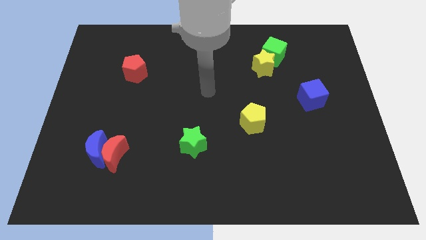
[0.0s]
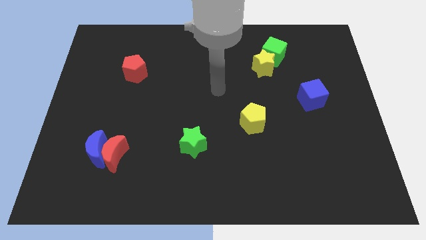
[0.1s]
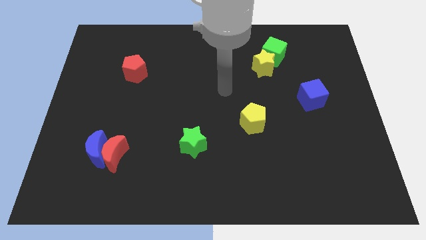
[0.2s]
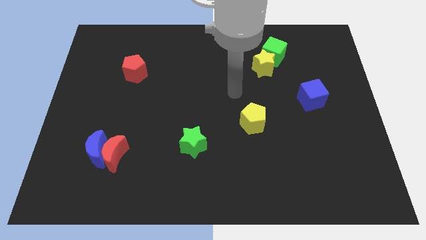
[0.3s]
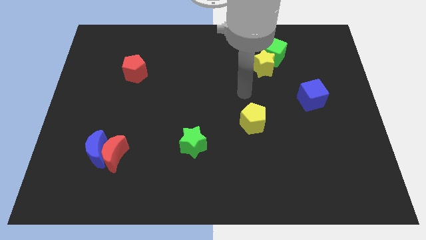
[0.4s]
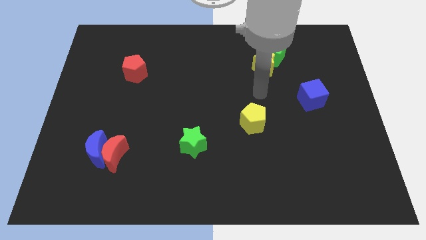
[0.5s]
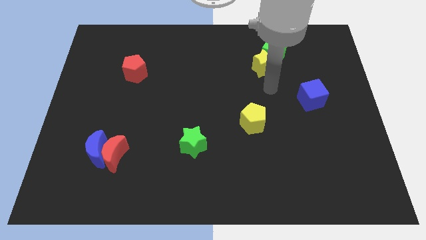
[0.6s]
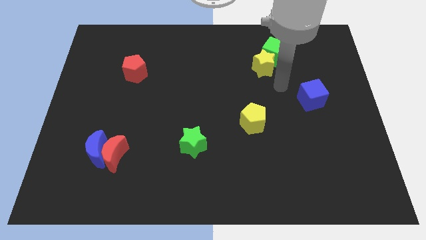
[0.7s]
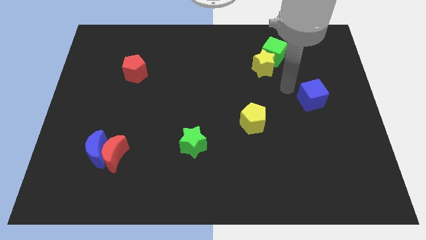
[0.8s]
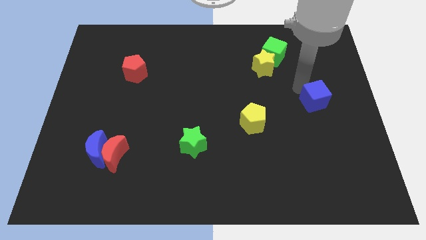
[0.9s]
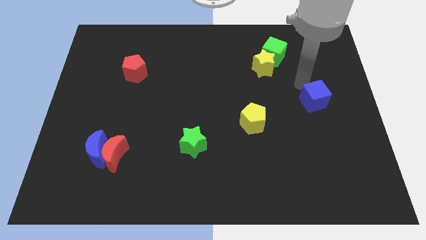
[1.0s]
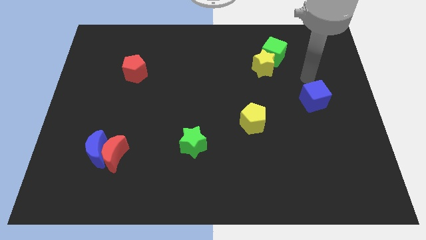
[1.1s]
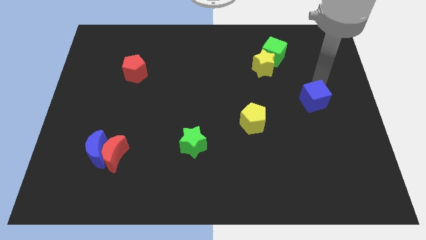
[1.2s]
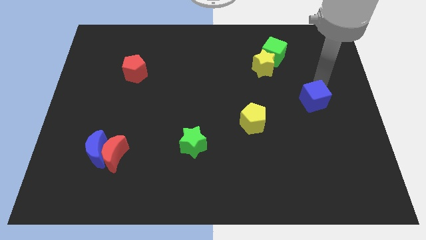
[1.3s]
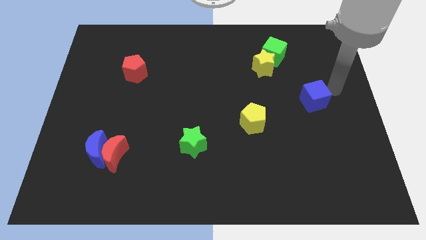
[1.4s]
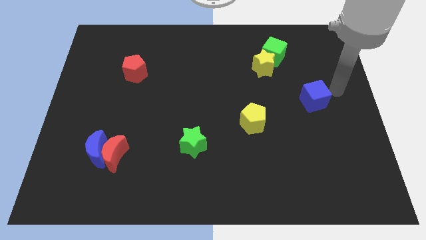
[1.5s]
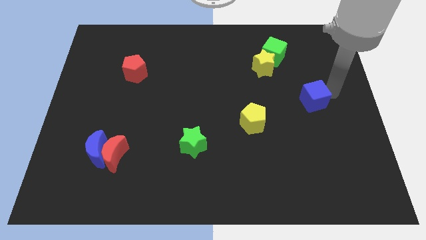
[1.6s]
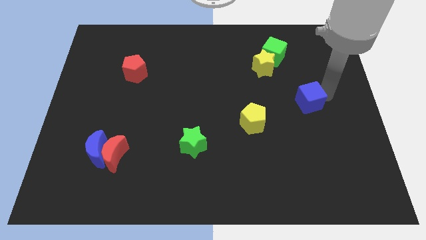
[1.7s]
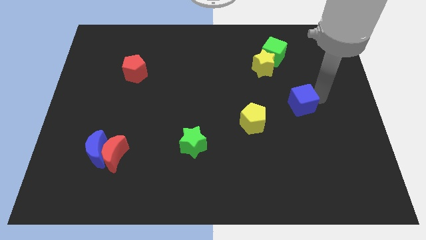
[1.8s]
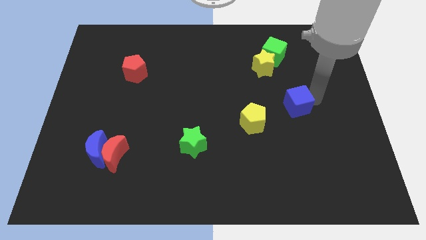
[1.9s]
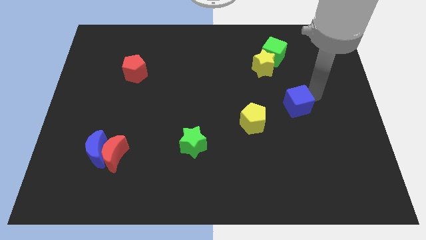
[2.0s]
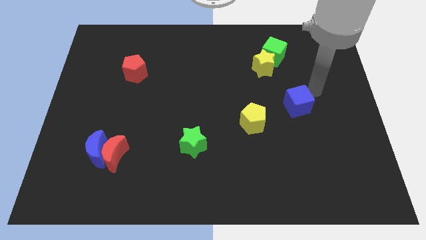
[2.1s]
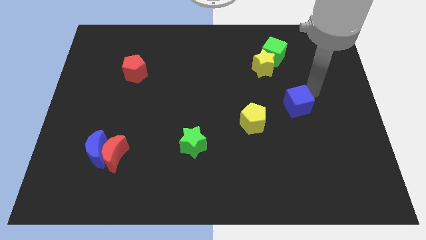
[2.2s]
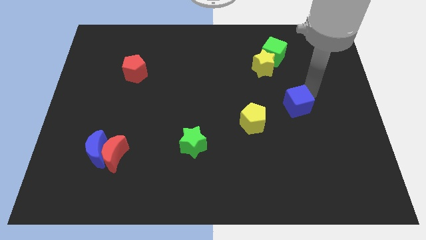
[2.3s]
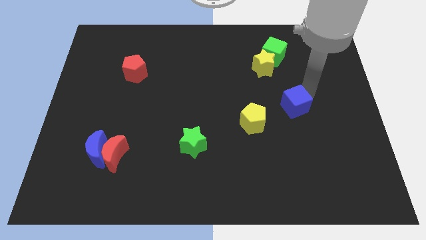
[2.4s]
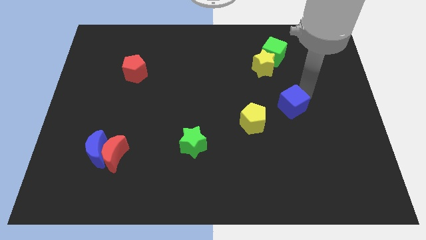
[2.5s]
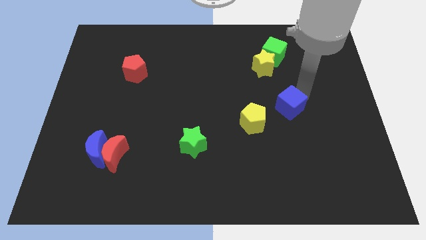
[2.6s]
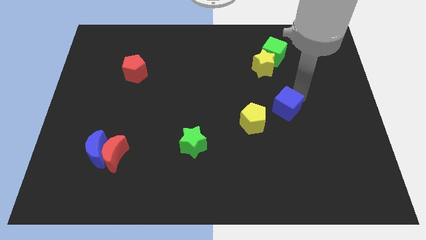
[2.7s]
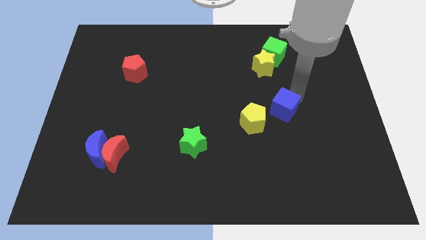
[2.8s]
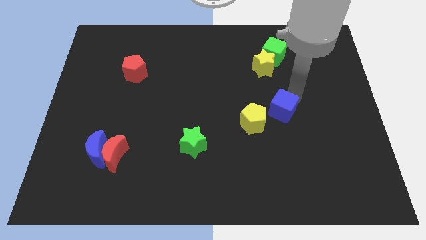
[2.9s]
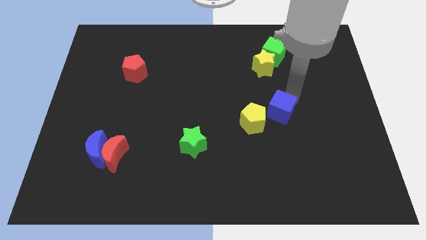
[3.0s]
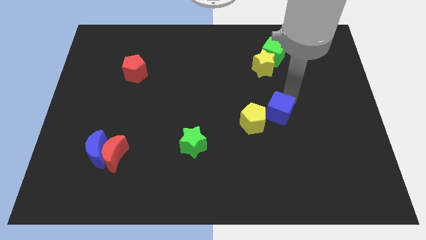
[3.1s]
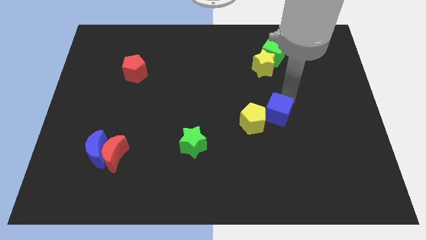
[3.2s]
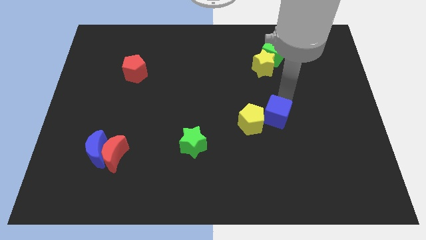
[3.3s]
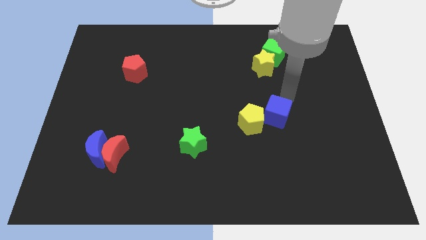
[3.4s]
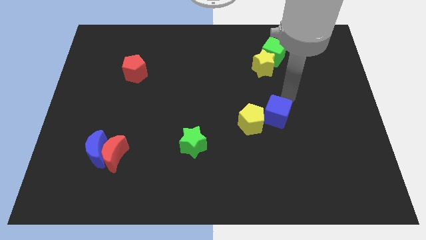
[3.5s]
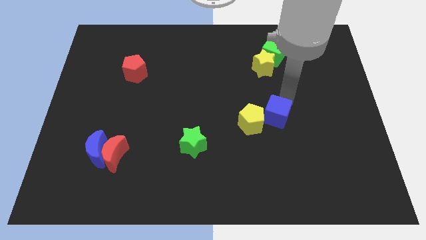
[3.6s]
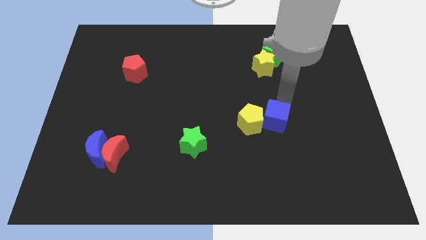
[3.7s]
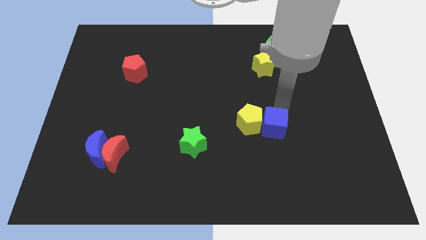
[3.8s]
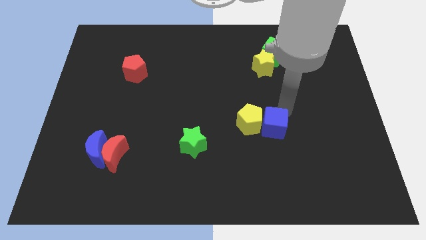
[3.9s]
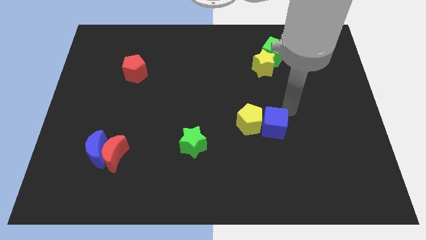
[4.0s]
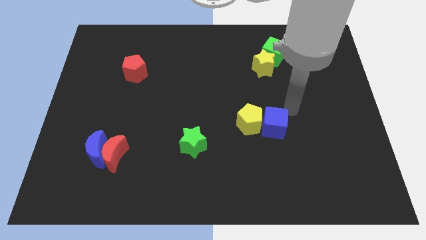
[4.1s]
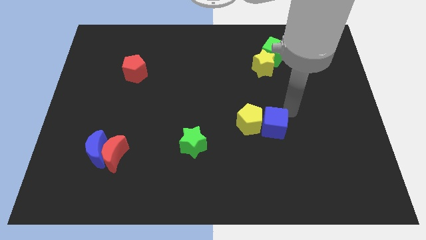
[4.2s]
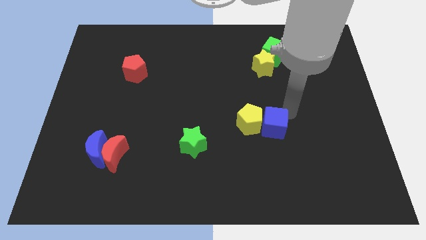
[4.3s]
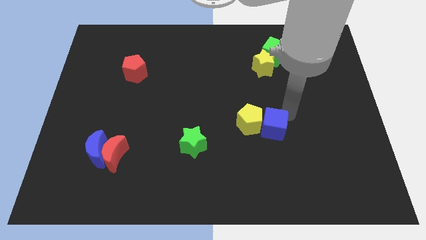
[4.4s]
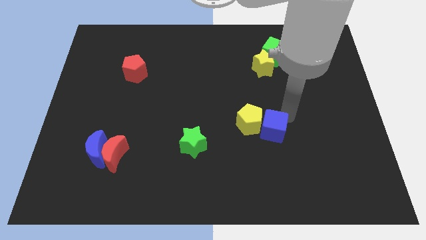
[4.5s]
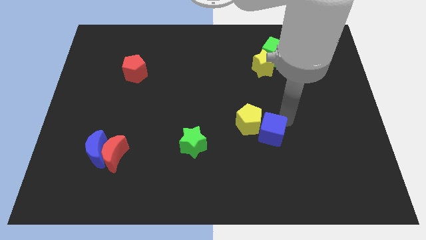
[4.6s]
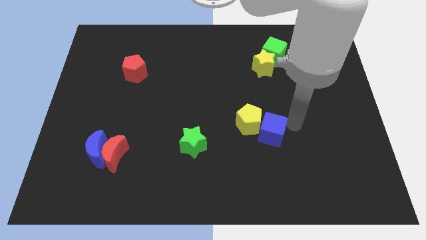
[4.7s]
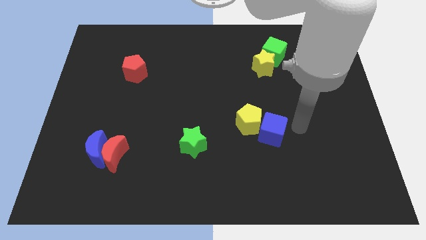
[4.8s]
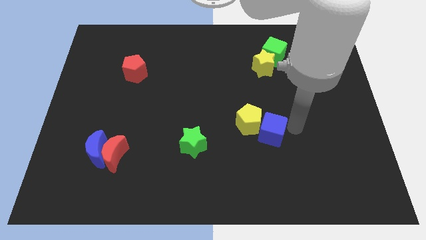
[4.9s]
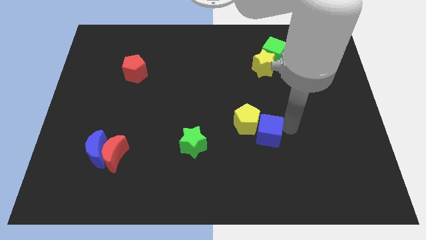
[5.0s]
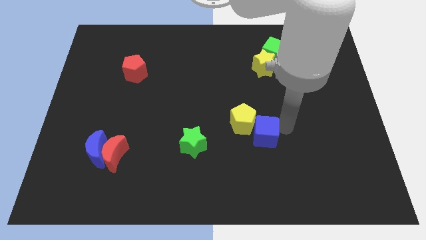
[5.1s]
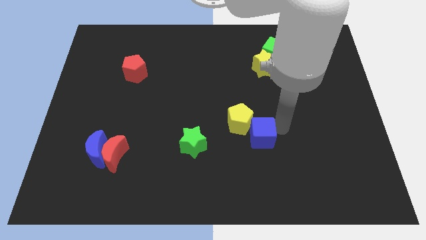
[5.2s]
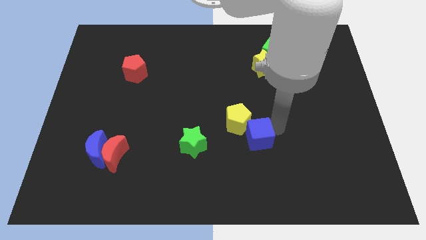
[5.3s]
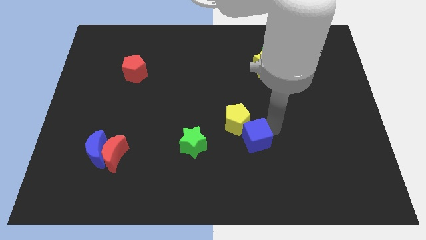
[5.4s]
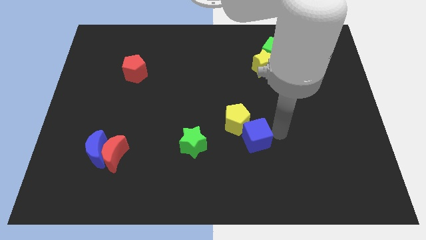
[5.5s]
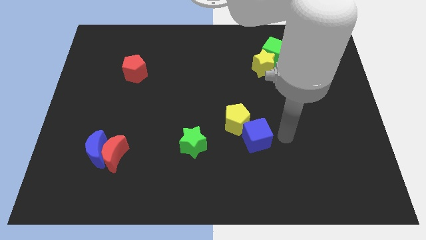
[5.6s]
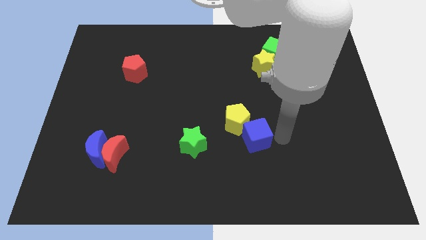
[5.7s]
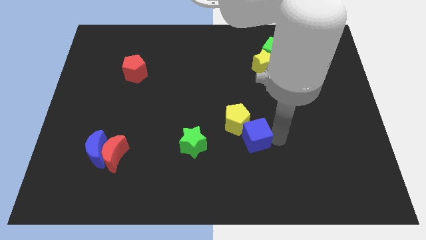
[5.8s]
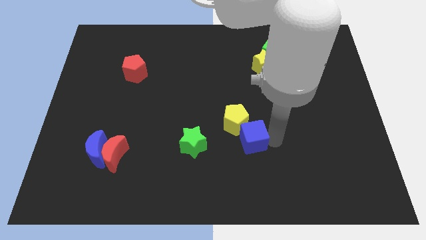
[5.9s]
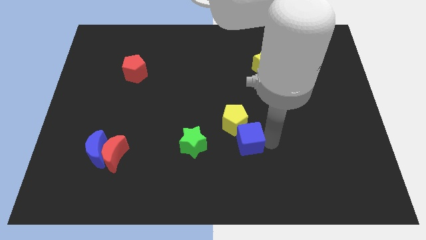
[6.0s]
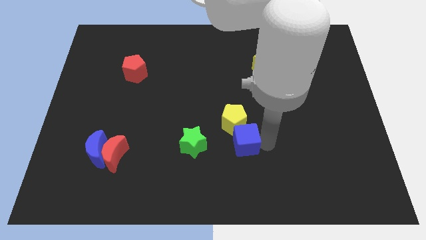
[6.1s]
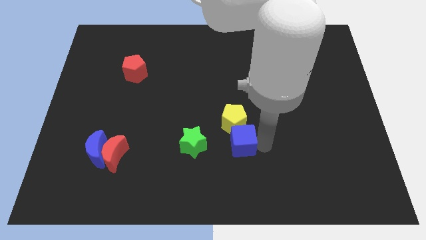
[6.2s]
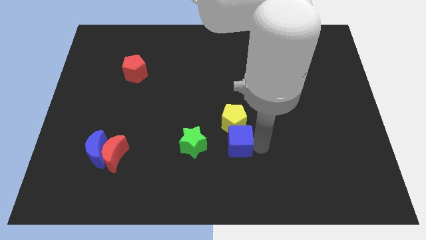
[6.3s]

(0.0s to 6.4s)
push the blue cube to the bottom left of the yellow pentagon
